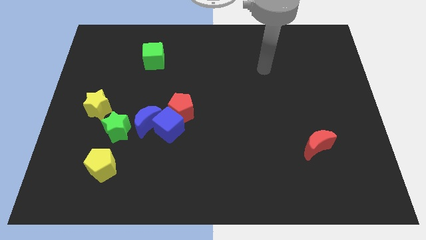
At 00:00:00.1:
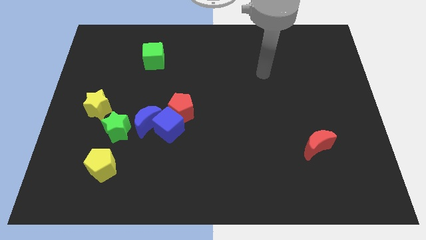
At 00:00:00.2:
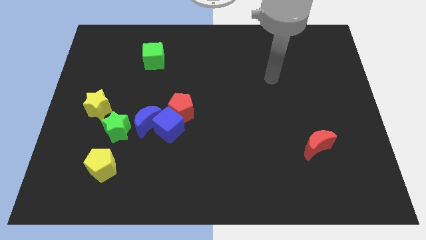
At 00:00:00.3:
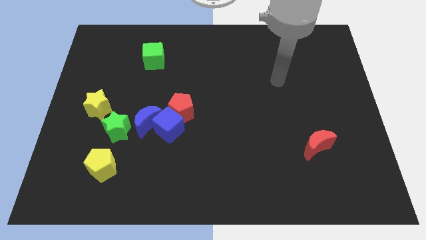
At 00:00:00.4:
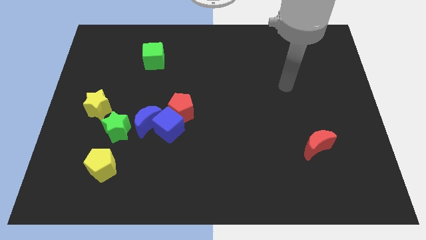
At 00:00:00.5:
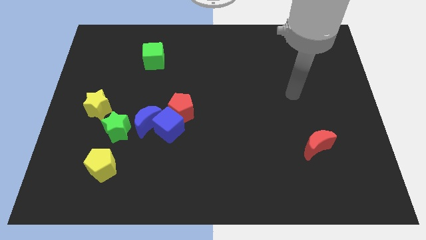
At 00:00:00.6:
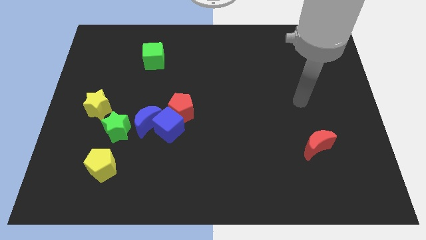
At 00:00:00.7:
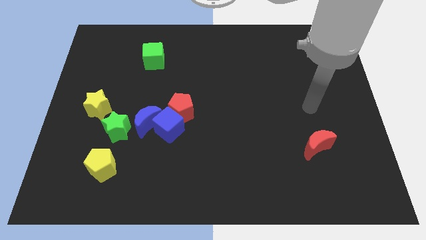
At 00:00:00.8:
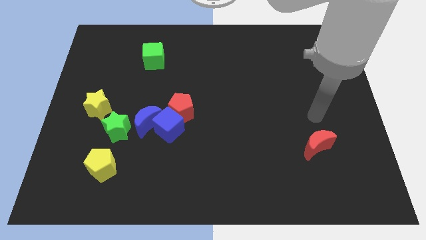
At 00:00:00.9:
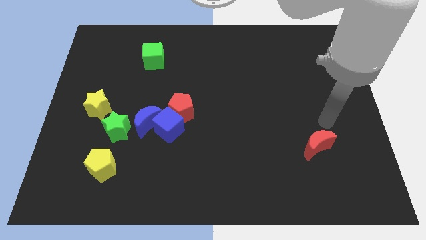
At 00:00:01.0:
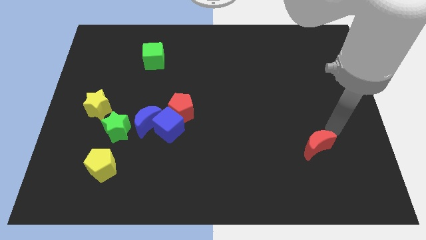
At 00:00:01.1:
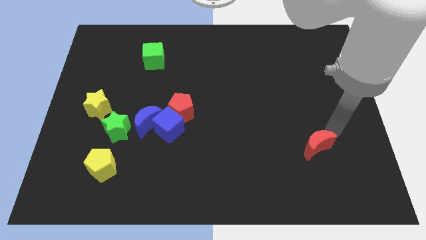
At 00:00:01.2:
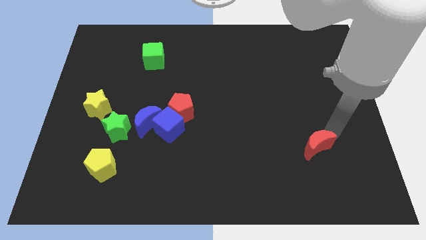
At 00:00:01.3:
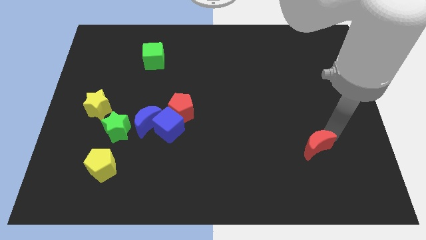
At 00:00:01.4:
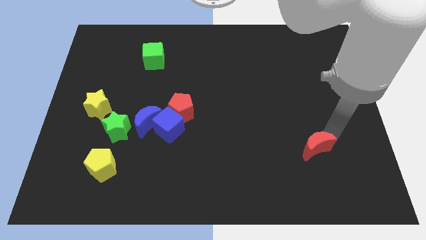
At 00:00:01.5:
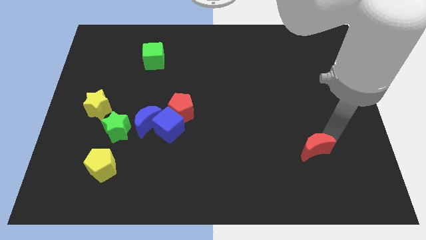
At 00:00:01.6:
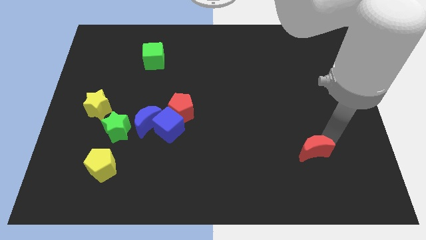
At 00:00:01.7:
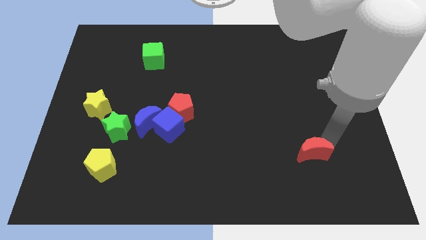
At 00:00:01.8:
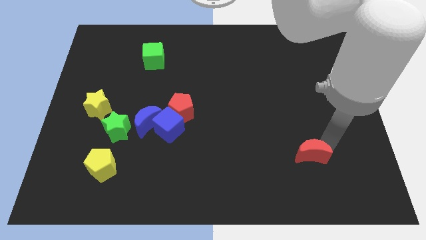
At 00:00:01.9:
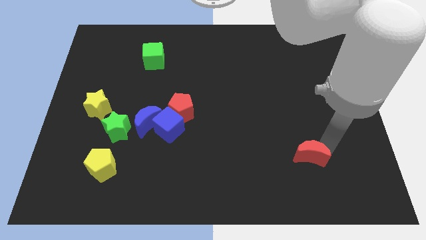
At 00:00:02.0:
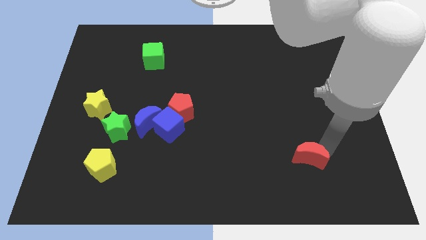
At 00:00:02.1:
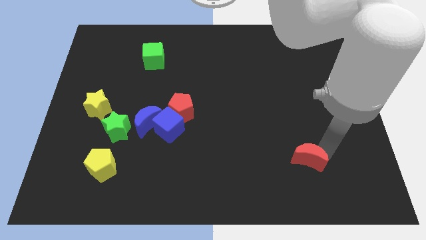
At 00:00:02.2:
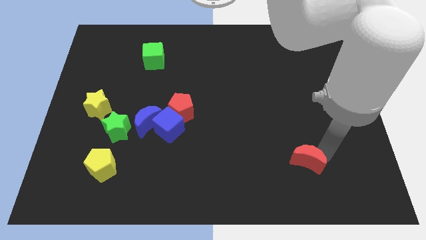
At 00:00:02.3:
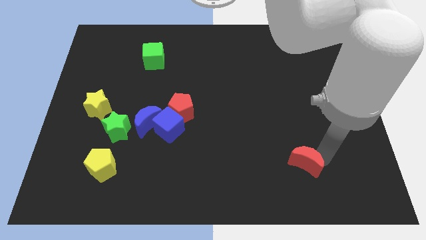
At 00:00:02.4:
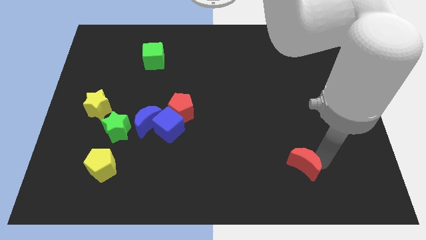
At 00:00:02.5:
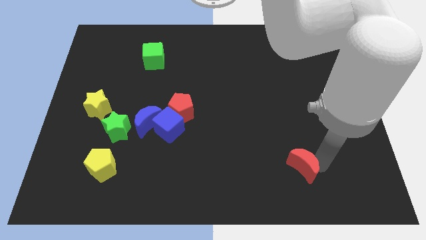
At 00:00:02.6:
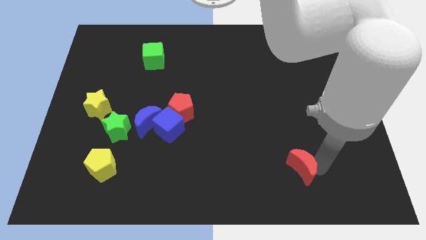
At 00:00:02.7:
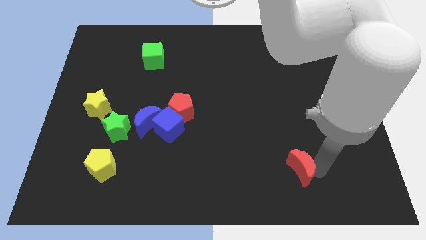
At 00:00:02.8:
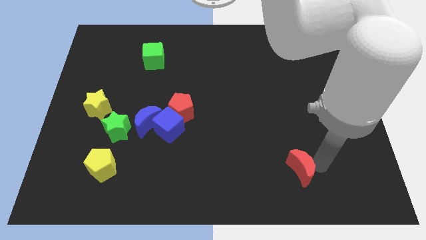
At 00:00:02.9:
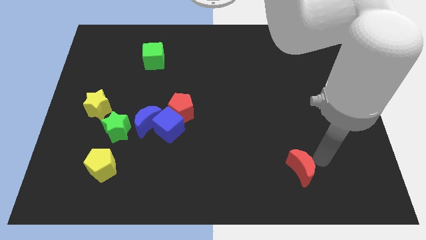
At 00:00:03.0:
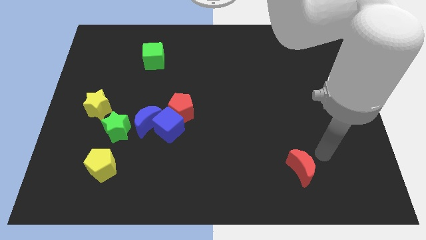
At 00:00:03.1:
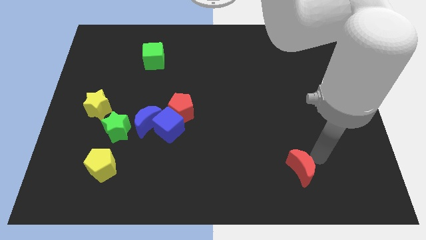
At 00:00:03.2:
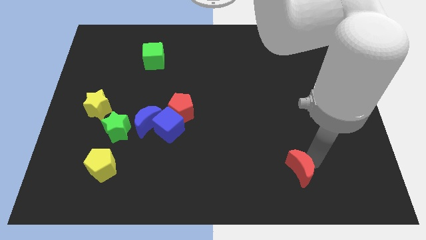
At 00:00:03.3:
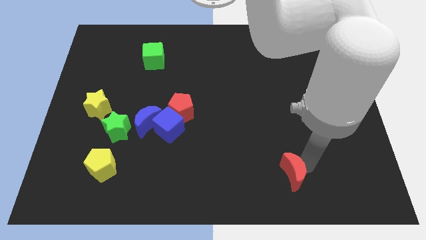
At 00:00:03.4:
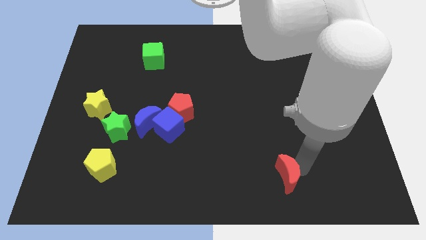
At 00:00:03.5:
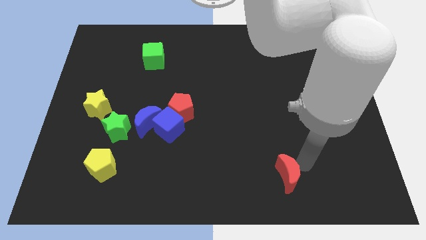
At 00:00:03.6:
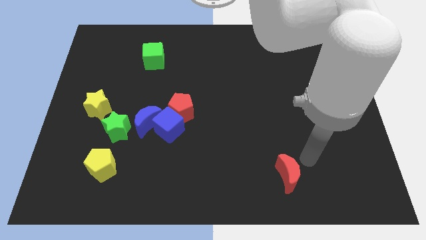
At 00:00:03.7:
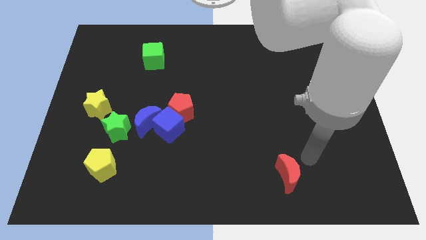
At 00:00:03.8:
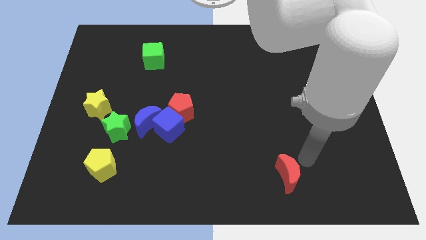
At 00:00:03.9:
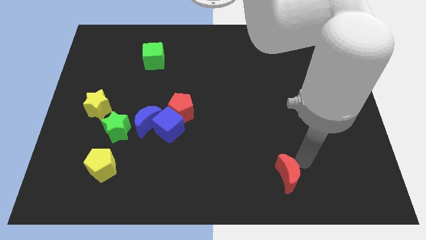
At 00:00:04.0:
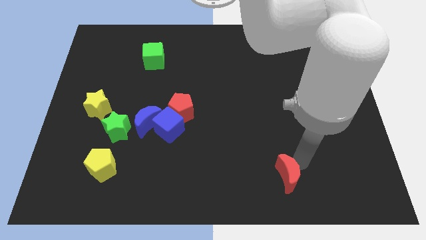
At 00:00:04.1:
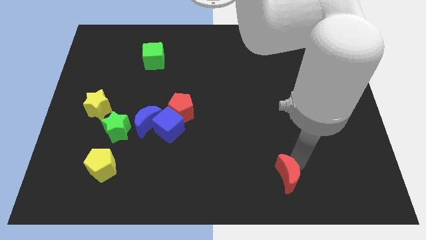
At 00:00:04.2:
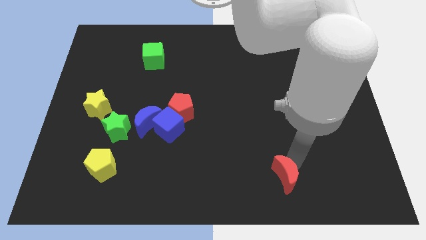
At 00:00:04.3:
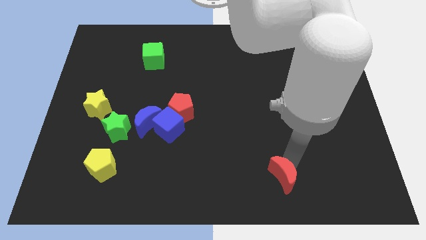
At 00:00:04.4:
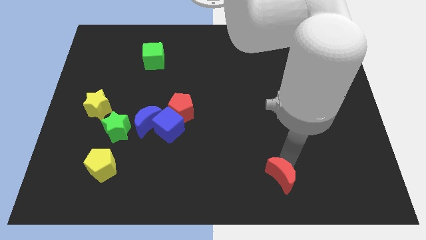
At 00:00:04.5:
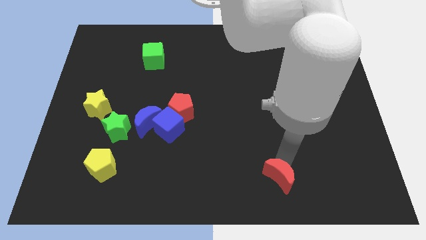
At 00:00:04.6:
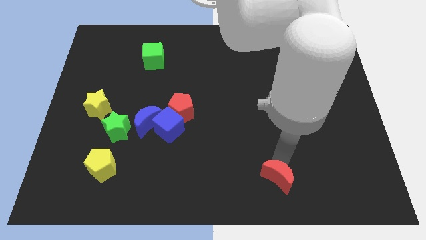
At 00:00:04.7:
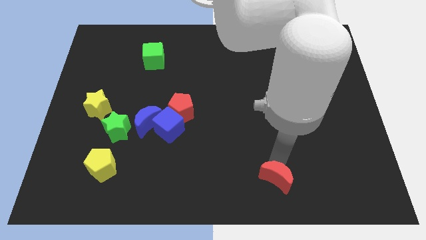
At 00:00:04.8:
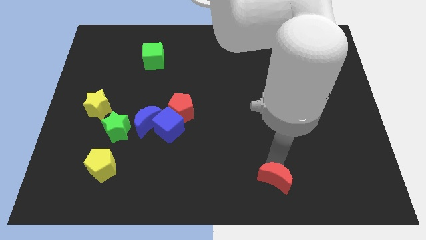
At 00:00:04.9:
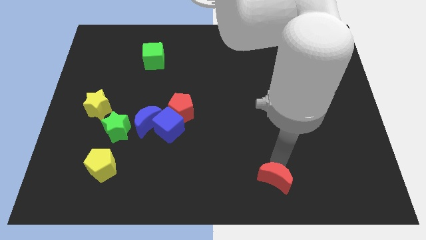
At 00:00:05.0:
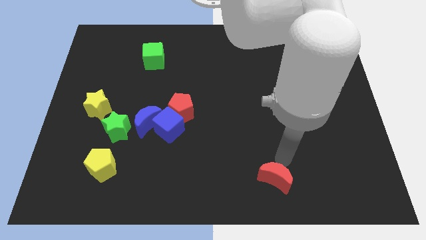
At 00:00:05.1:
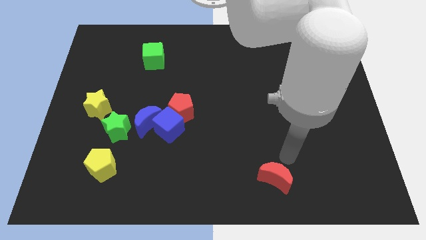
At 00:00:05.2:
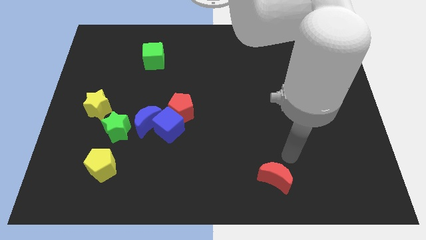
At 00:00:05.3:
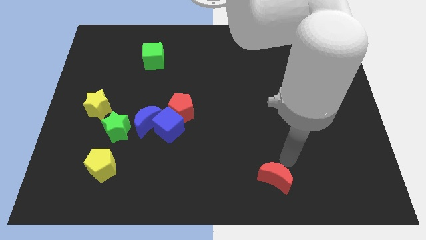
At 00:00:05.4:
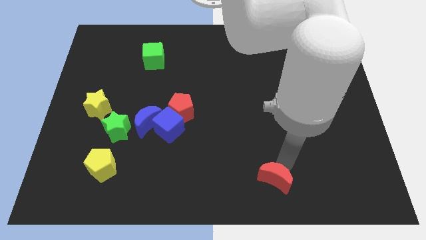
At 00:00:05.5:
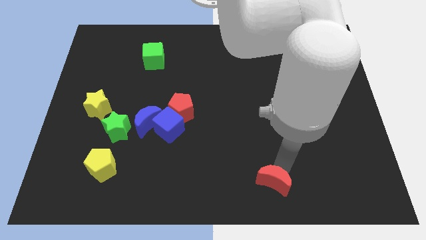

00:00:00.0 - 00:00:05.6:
slide the red moon to the bottom
